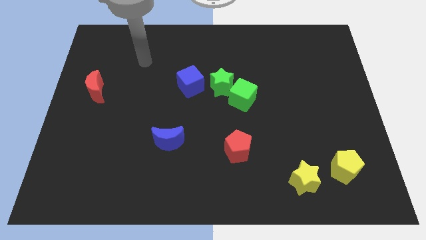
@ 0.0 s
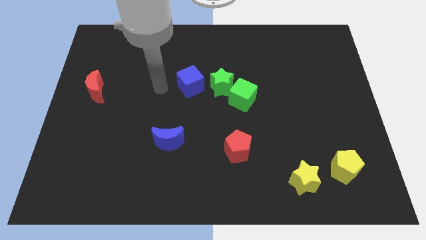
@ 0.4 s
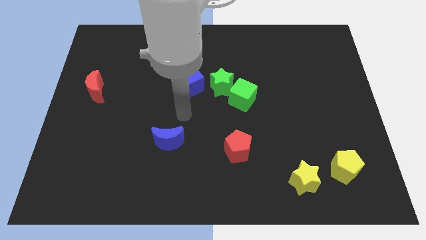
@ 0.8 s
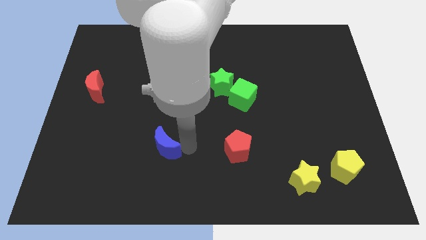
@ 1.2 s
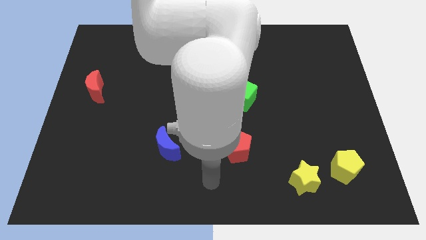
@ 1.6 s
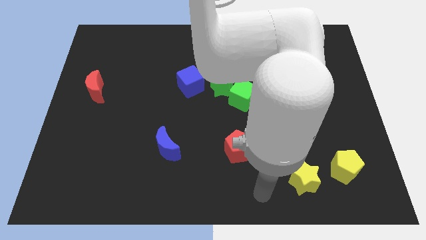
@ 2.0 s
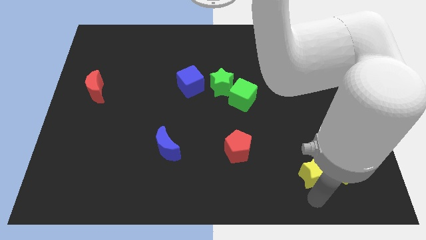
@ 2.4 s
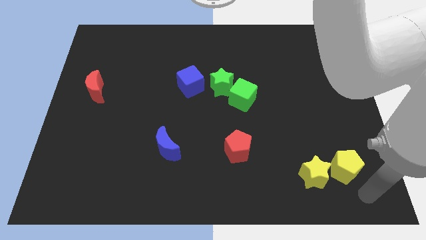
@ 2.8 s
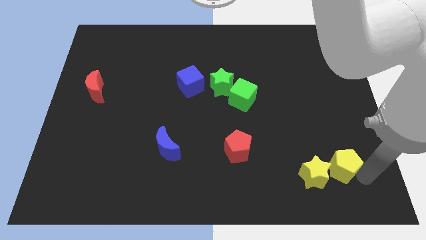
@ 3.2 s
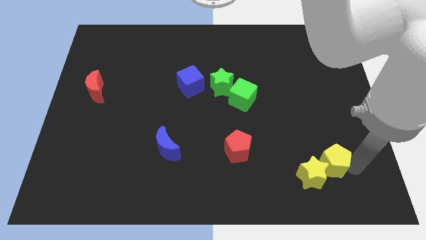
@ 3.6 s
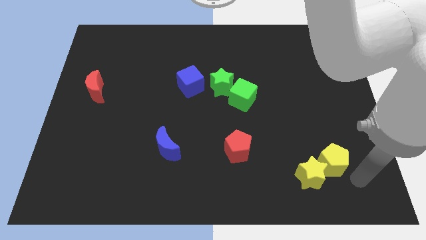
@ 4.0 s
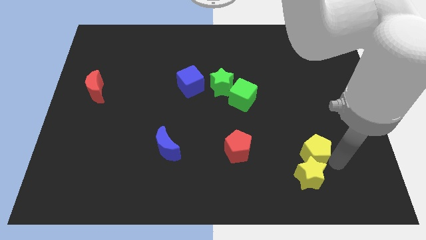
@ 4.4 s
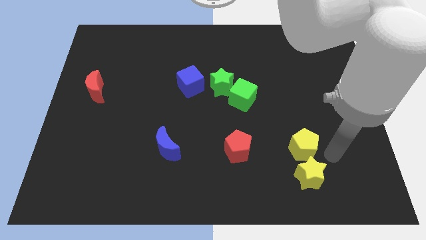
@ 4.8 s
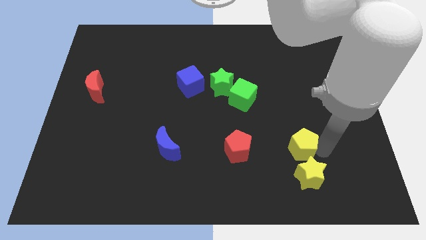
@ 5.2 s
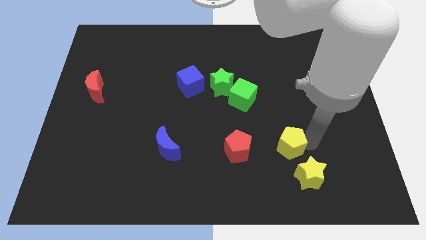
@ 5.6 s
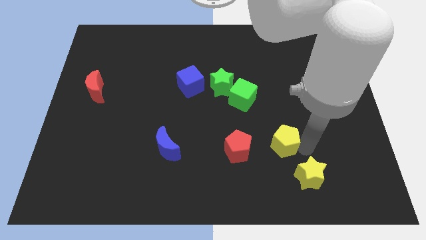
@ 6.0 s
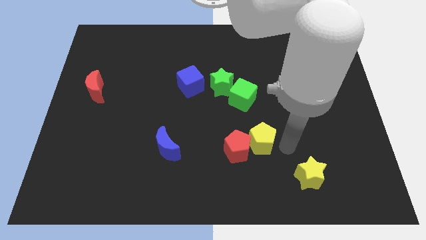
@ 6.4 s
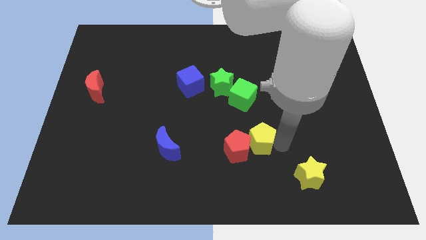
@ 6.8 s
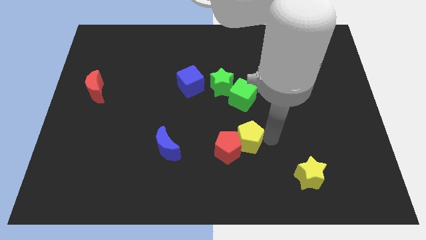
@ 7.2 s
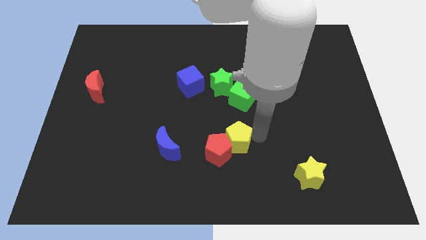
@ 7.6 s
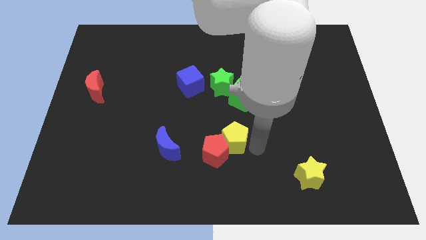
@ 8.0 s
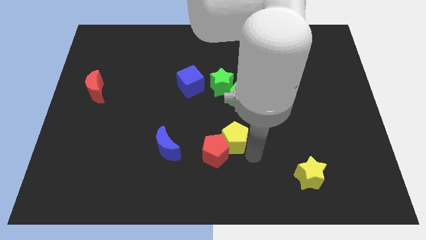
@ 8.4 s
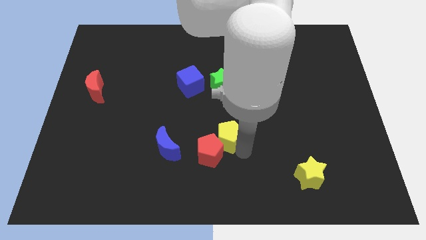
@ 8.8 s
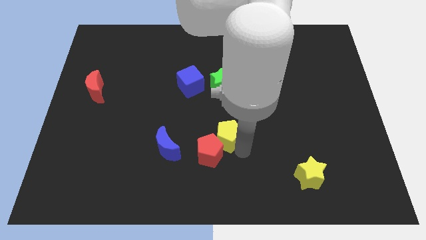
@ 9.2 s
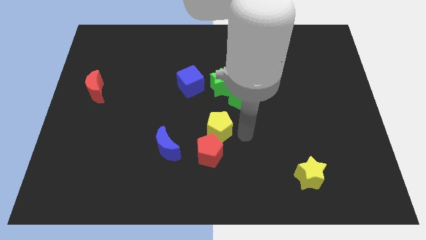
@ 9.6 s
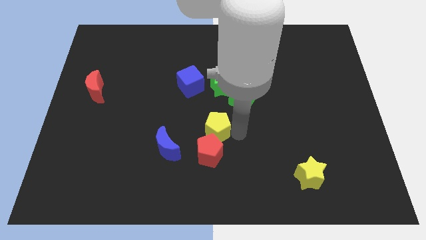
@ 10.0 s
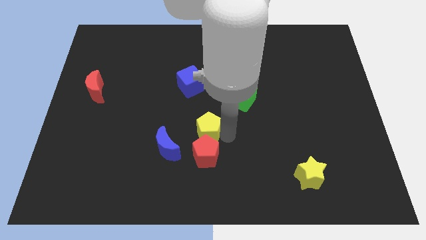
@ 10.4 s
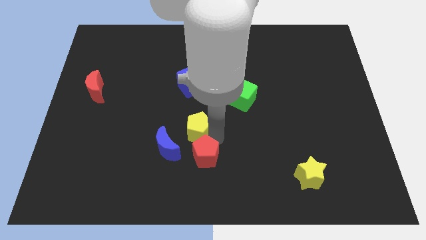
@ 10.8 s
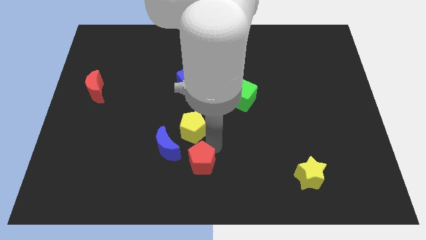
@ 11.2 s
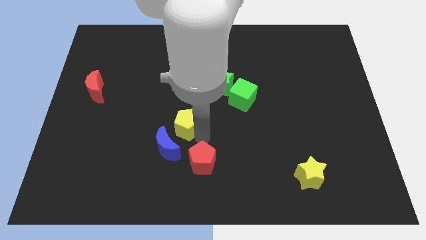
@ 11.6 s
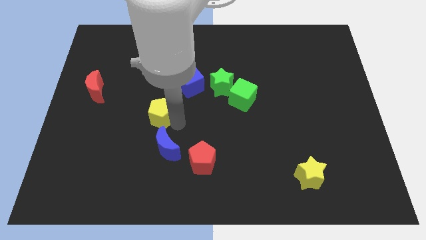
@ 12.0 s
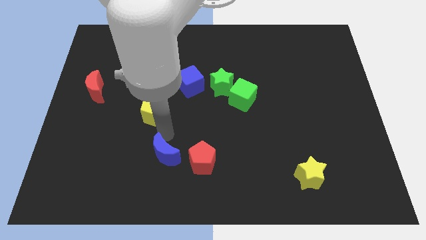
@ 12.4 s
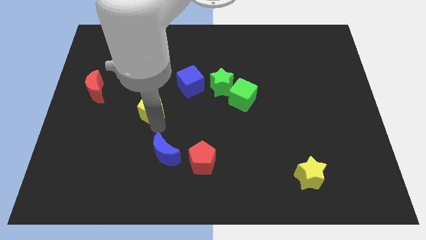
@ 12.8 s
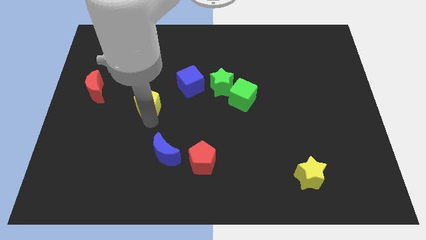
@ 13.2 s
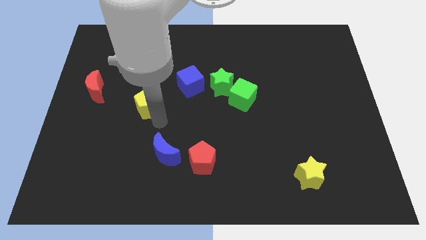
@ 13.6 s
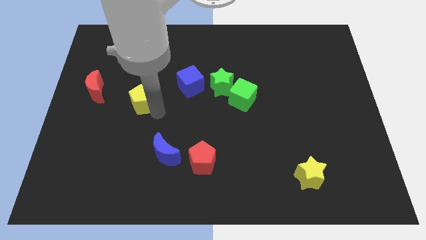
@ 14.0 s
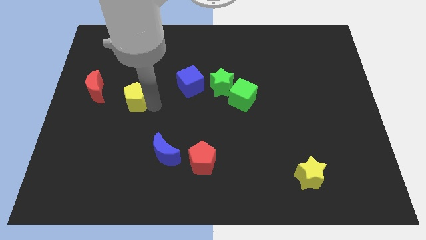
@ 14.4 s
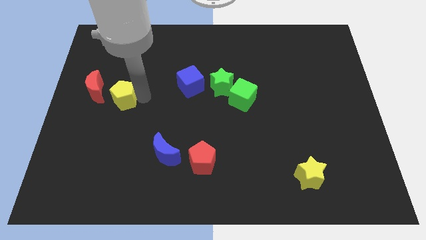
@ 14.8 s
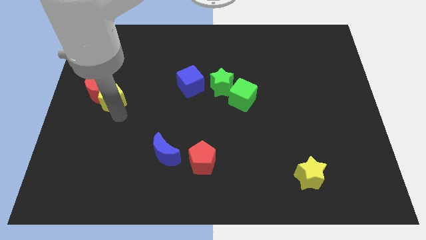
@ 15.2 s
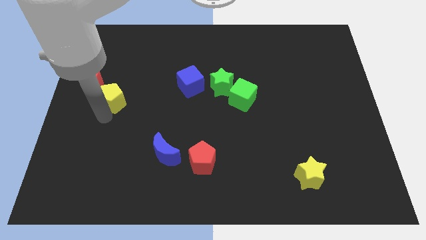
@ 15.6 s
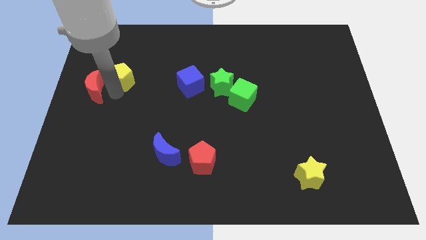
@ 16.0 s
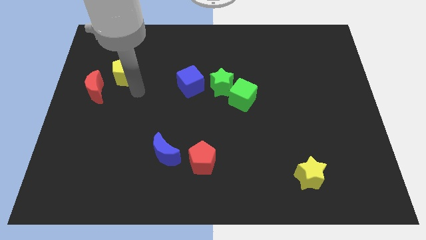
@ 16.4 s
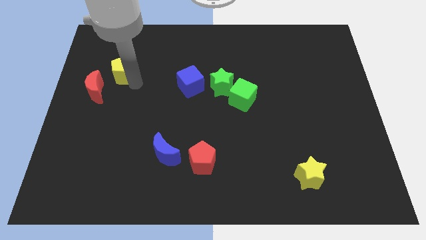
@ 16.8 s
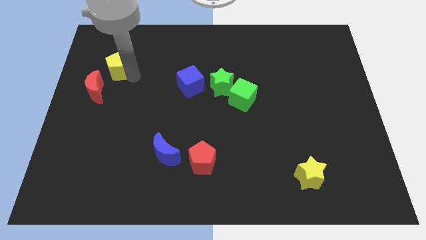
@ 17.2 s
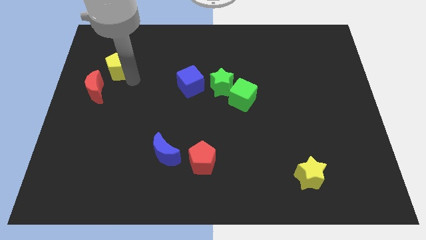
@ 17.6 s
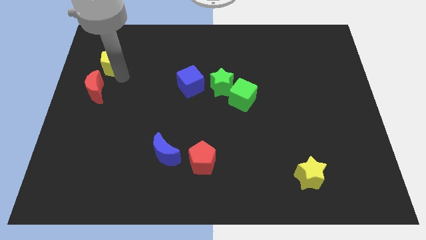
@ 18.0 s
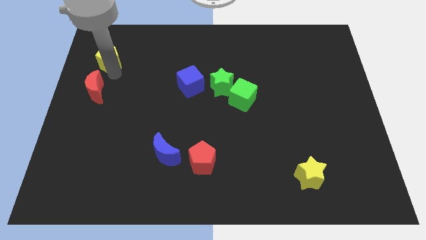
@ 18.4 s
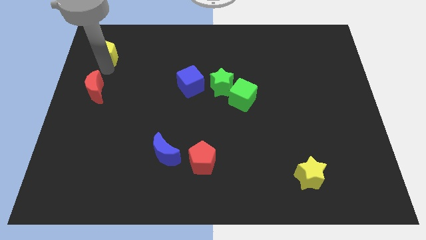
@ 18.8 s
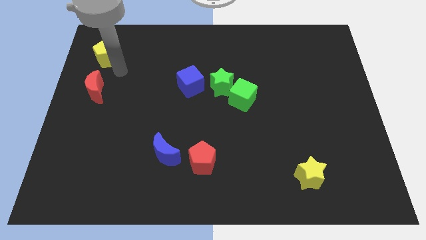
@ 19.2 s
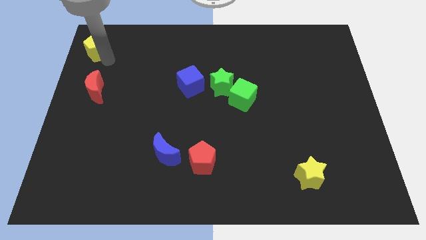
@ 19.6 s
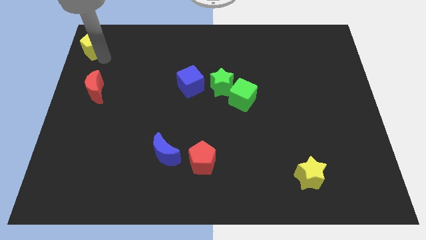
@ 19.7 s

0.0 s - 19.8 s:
move the yellow pentagon to the upper left corner

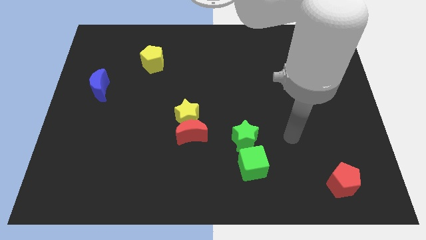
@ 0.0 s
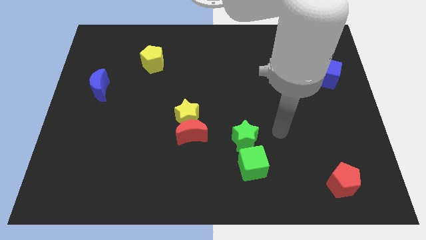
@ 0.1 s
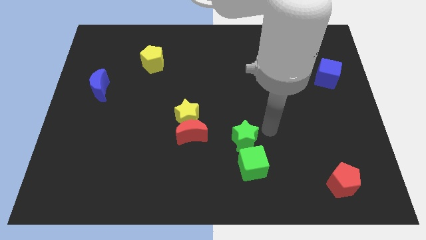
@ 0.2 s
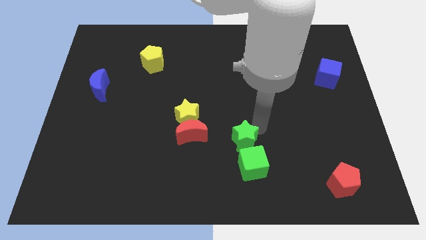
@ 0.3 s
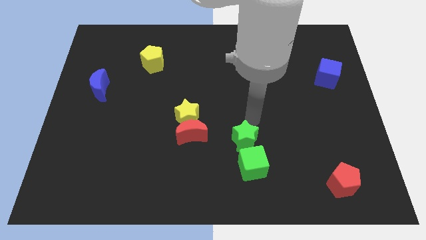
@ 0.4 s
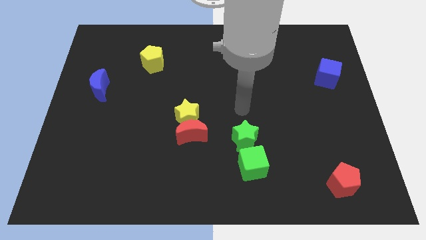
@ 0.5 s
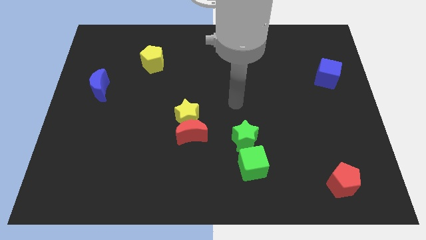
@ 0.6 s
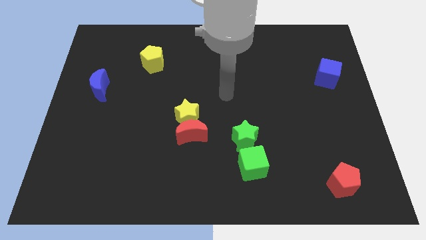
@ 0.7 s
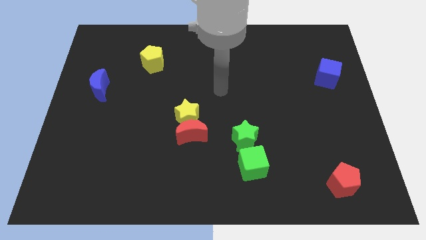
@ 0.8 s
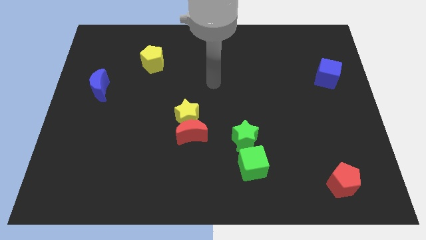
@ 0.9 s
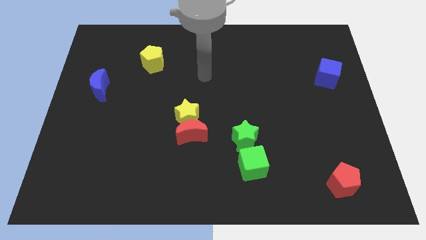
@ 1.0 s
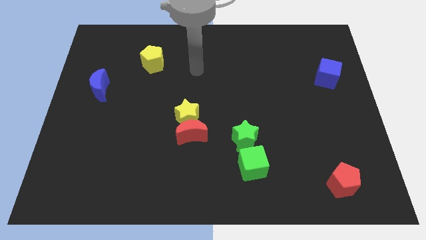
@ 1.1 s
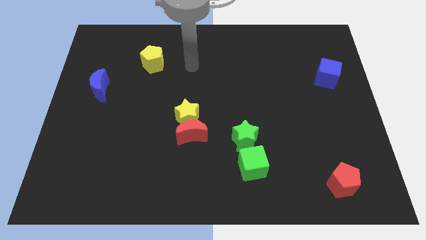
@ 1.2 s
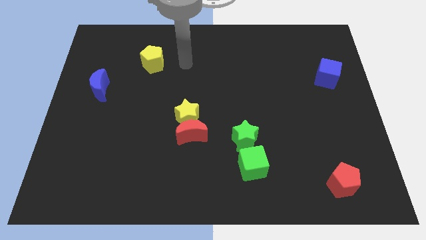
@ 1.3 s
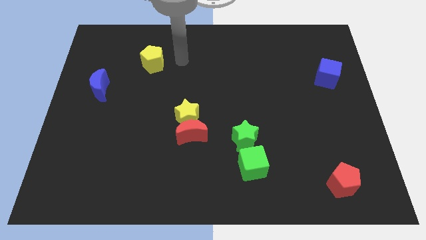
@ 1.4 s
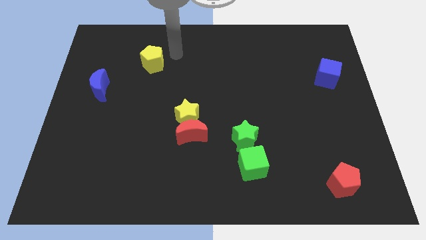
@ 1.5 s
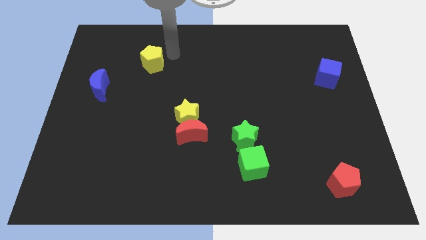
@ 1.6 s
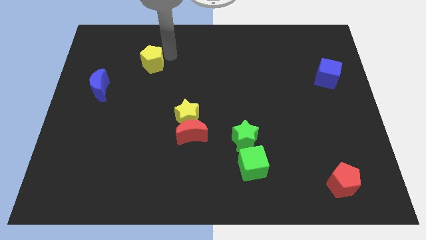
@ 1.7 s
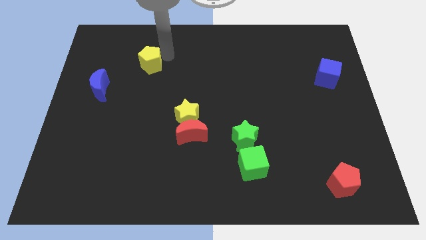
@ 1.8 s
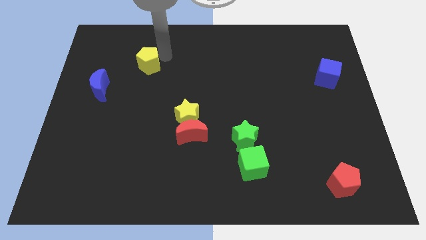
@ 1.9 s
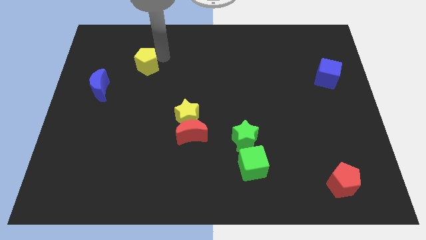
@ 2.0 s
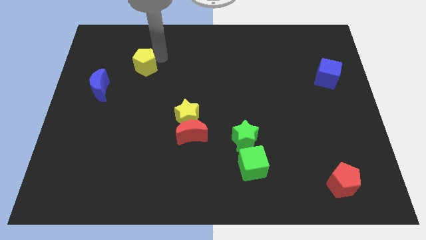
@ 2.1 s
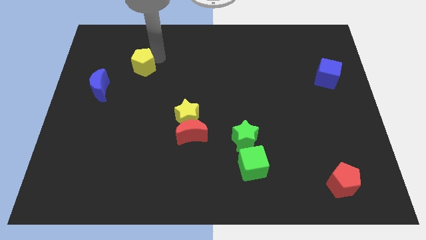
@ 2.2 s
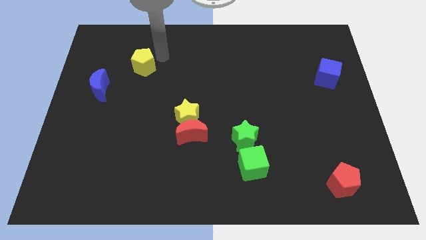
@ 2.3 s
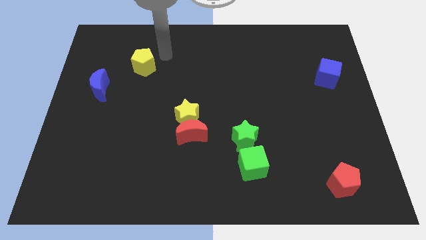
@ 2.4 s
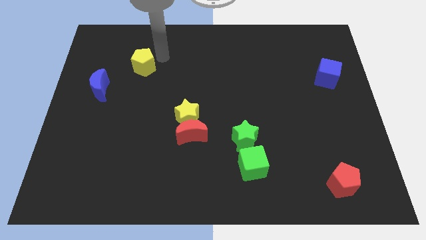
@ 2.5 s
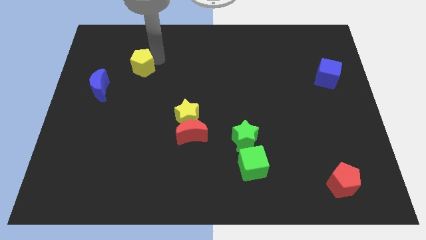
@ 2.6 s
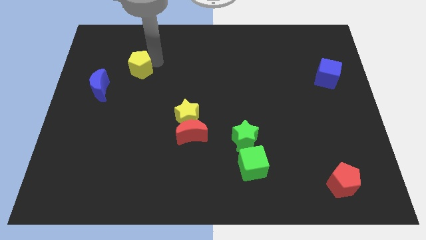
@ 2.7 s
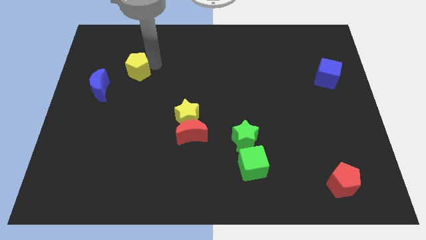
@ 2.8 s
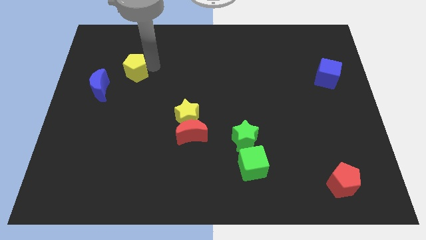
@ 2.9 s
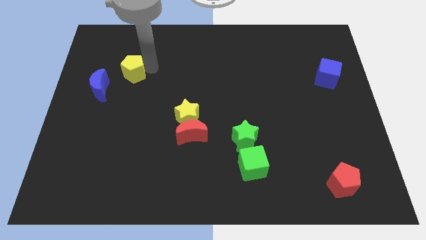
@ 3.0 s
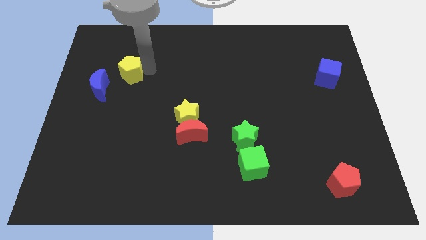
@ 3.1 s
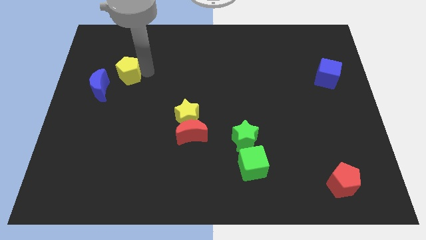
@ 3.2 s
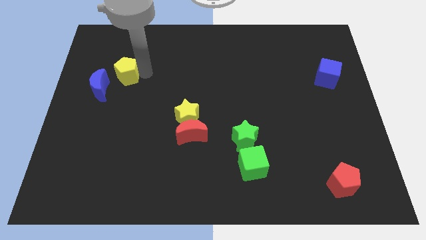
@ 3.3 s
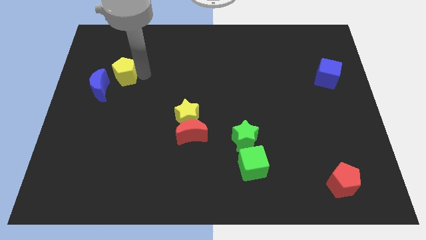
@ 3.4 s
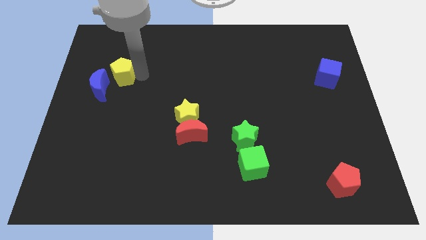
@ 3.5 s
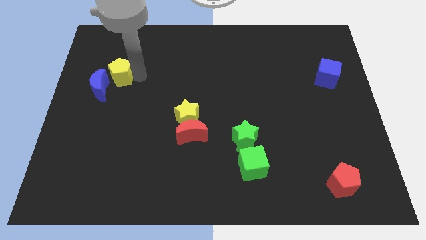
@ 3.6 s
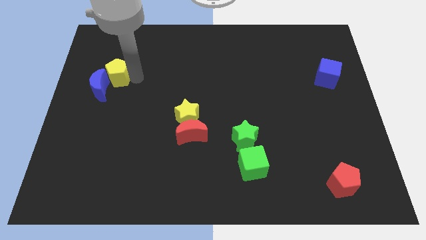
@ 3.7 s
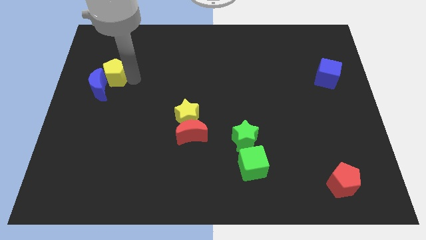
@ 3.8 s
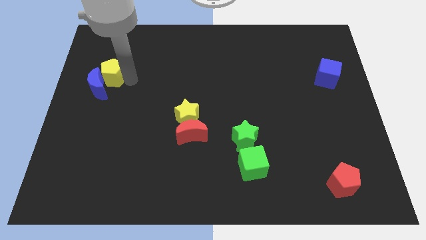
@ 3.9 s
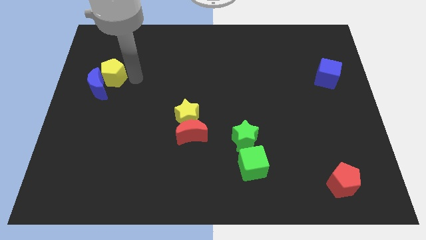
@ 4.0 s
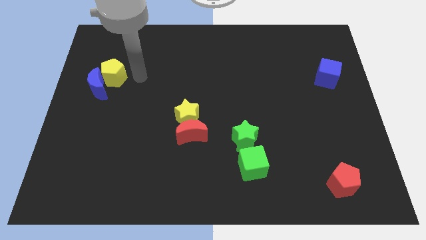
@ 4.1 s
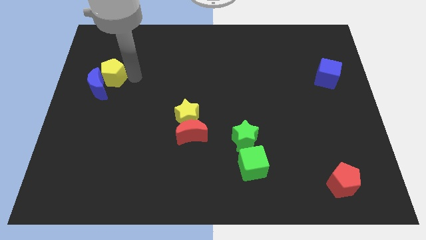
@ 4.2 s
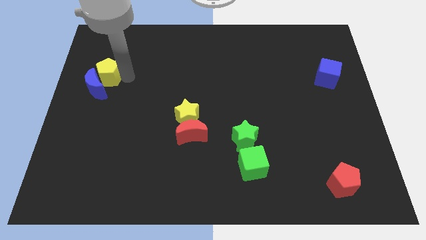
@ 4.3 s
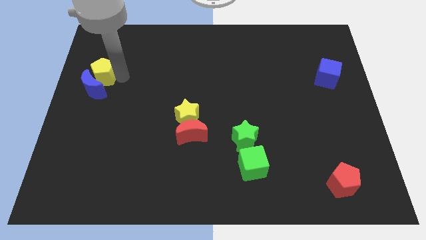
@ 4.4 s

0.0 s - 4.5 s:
move the yellow pentagon to the left side of the board
